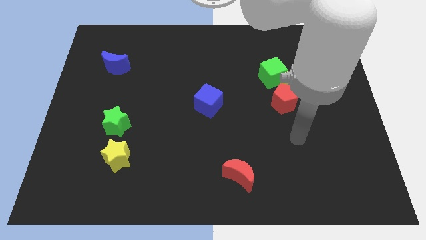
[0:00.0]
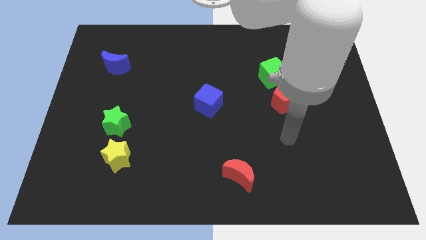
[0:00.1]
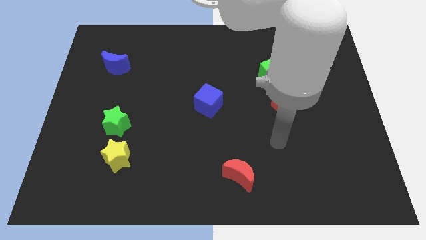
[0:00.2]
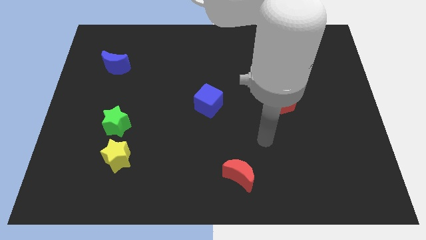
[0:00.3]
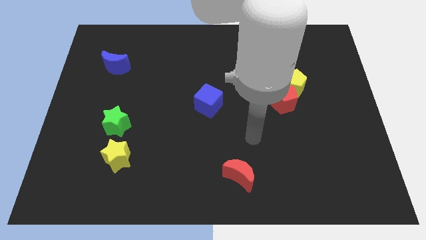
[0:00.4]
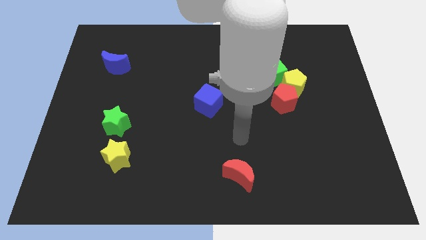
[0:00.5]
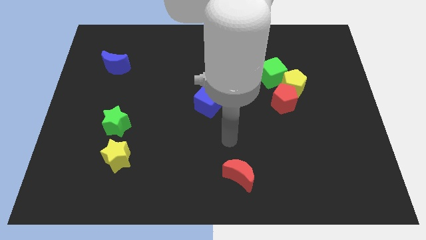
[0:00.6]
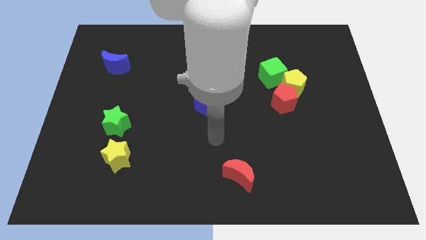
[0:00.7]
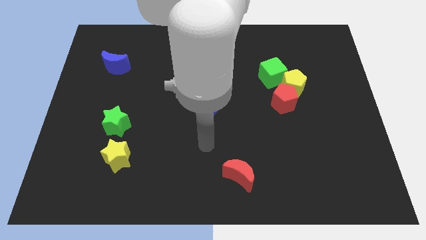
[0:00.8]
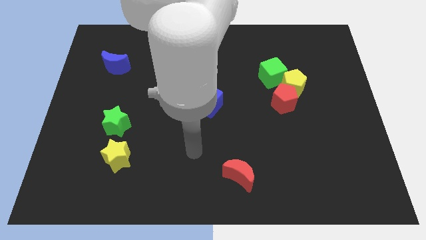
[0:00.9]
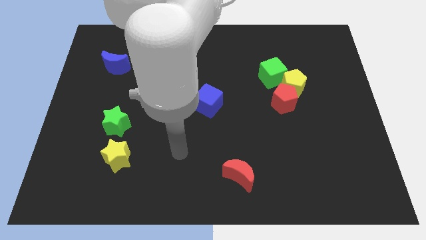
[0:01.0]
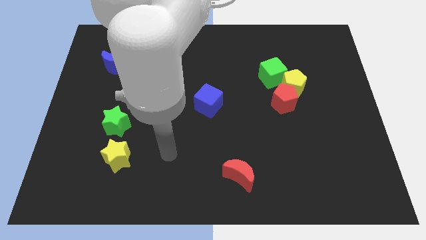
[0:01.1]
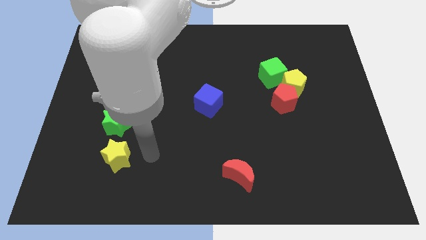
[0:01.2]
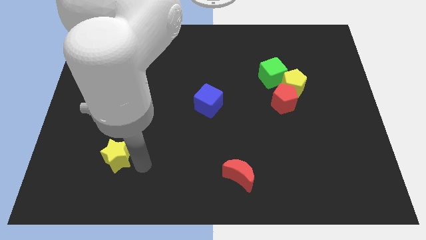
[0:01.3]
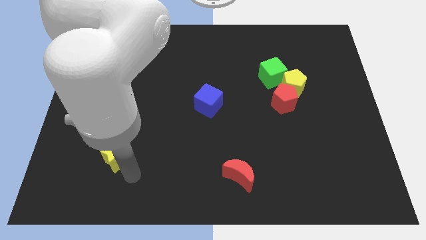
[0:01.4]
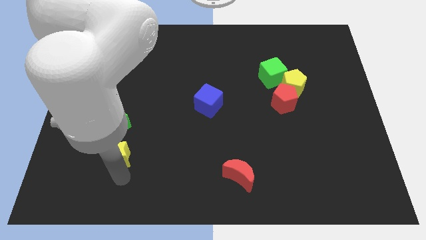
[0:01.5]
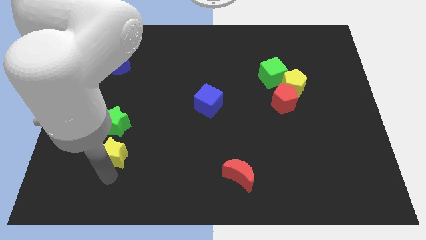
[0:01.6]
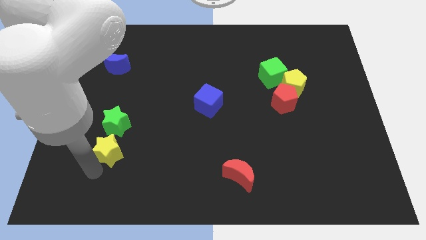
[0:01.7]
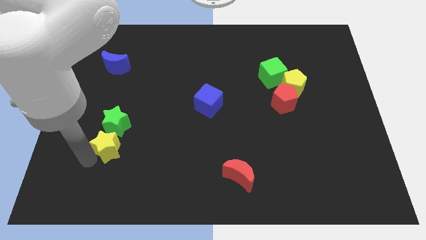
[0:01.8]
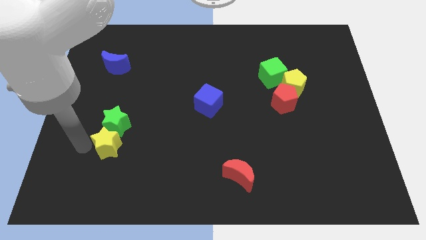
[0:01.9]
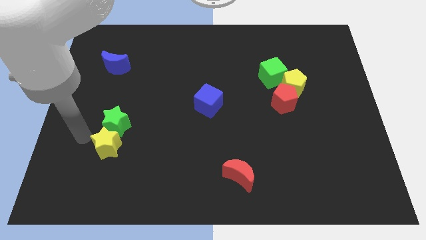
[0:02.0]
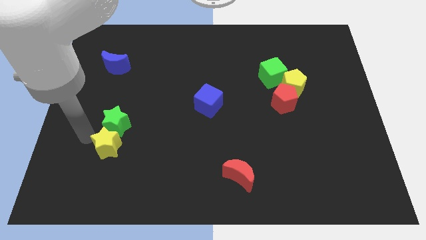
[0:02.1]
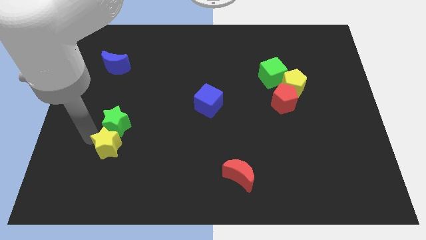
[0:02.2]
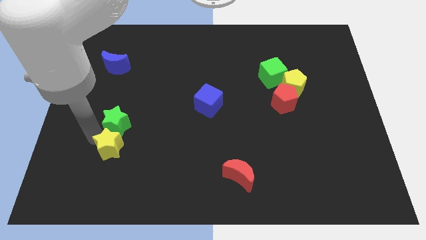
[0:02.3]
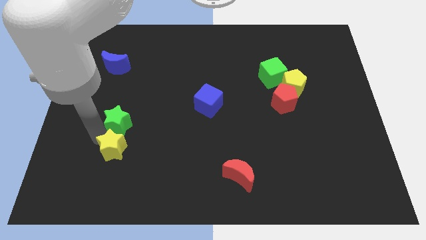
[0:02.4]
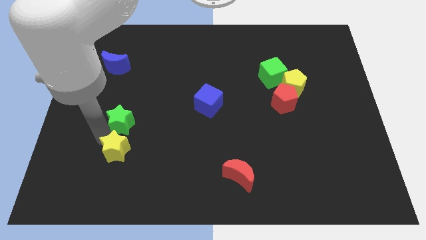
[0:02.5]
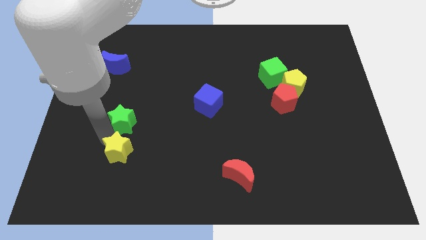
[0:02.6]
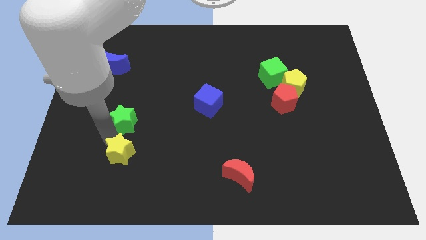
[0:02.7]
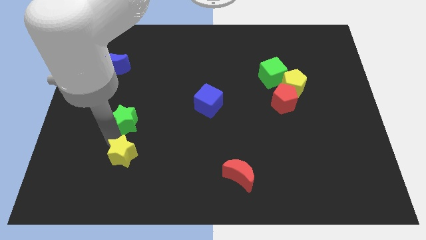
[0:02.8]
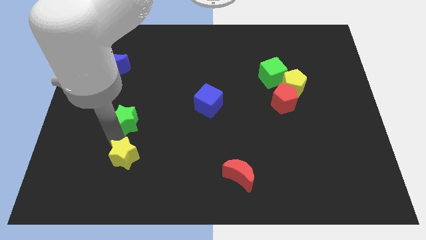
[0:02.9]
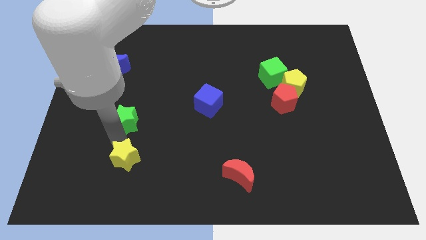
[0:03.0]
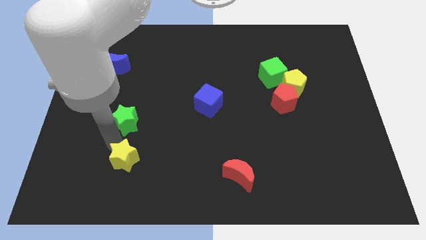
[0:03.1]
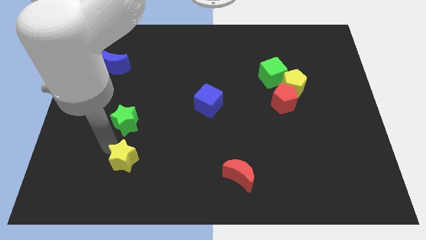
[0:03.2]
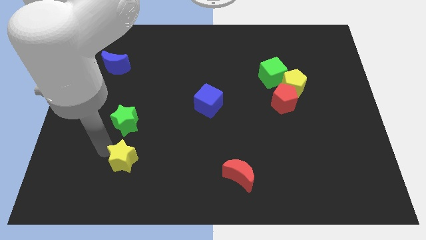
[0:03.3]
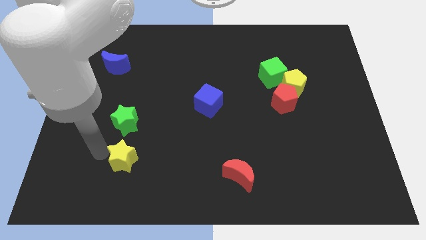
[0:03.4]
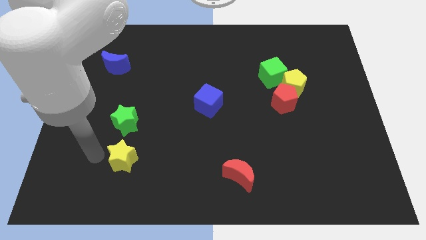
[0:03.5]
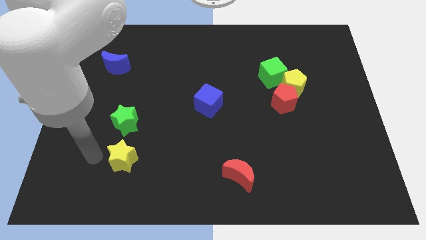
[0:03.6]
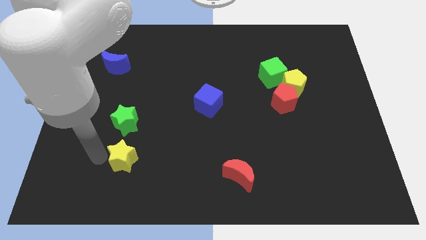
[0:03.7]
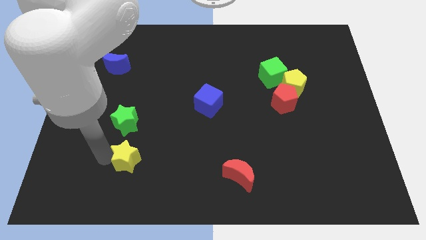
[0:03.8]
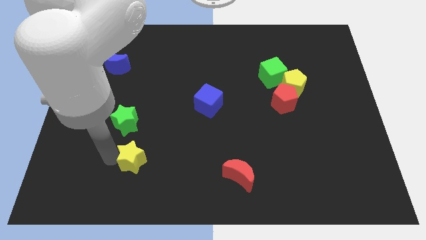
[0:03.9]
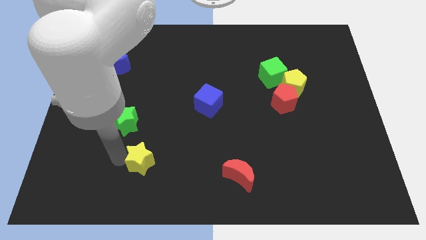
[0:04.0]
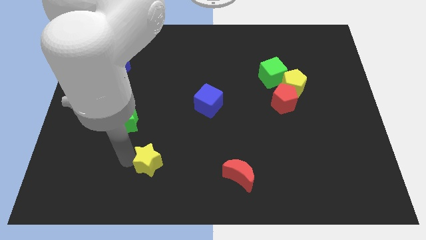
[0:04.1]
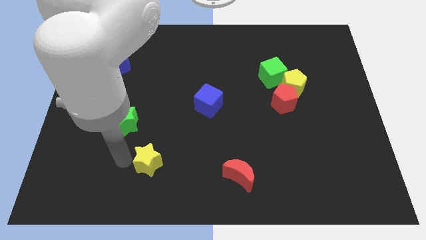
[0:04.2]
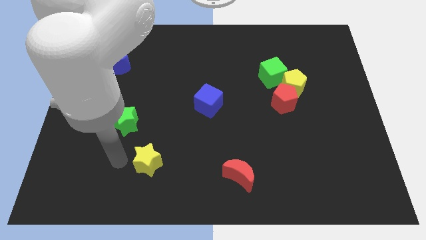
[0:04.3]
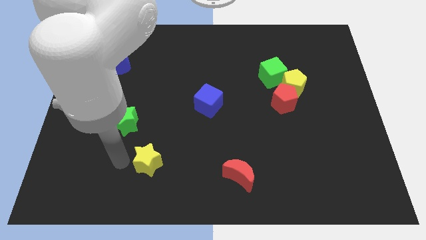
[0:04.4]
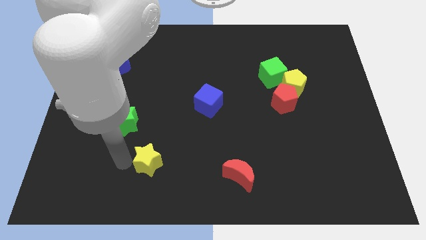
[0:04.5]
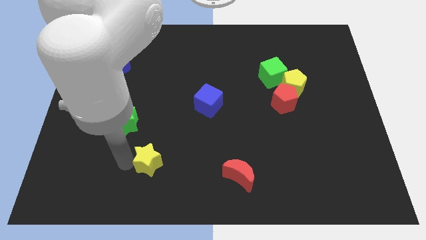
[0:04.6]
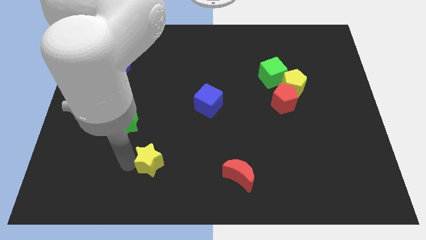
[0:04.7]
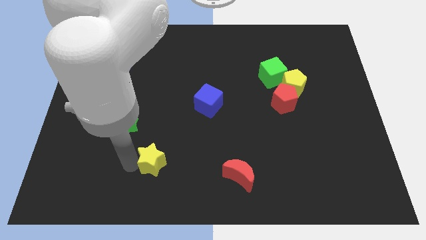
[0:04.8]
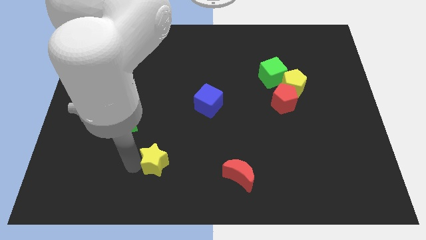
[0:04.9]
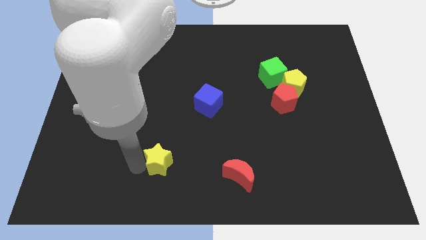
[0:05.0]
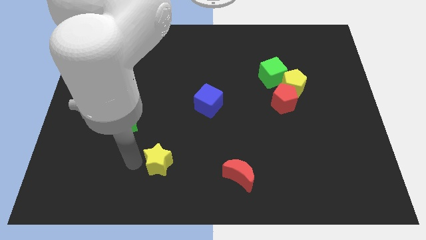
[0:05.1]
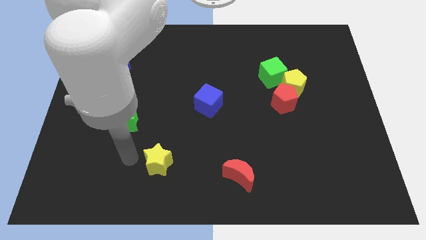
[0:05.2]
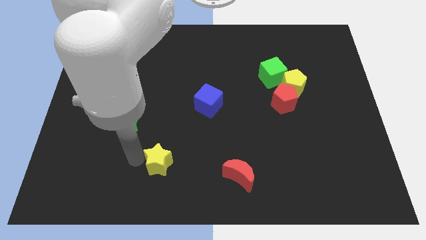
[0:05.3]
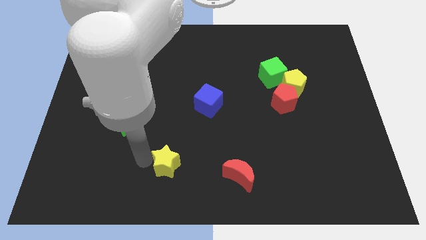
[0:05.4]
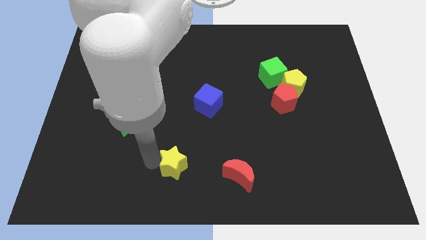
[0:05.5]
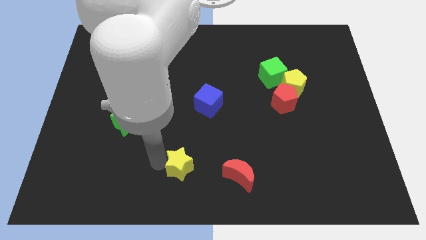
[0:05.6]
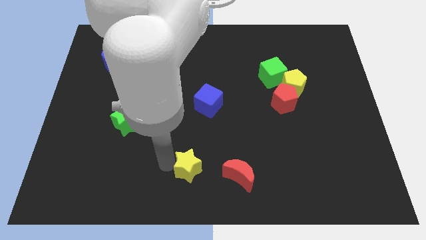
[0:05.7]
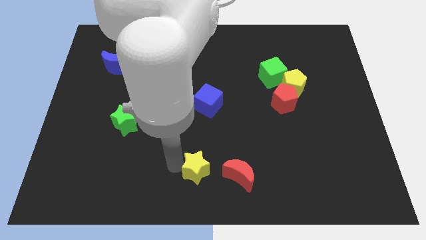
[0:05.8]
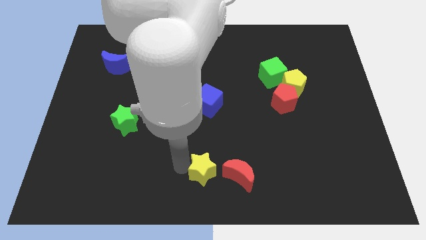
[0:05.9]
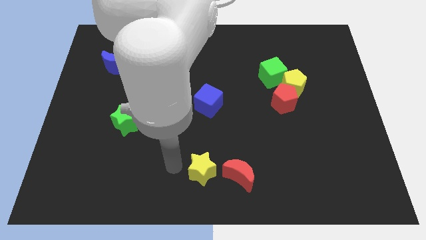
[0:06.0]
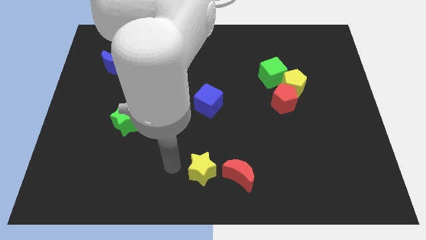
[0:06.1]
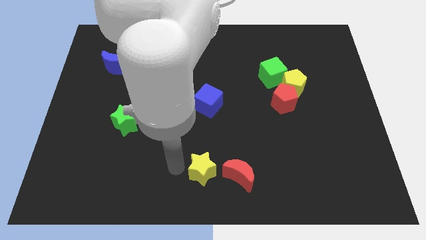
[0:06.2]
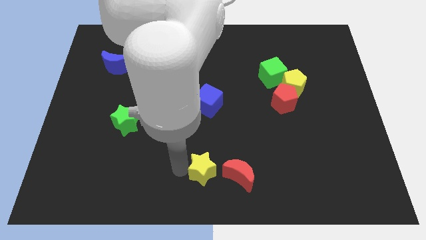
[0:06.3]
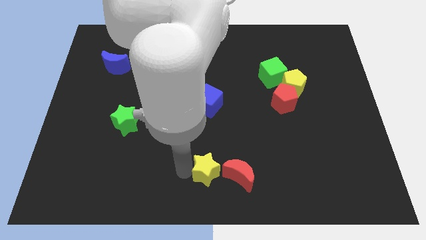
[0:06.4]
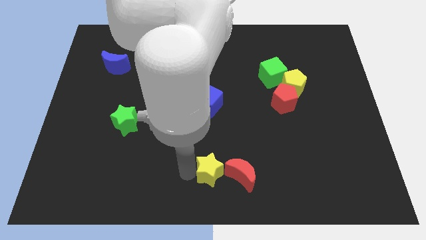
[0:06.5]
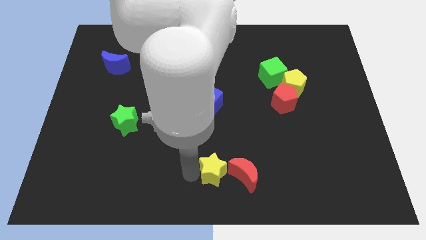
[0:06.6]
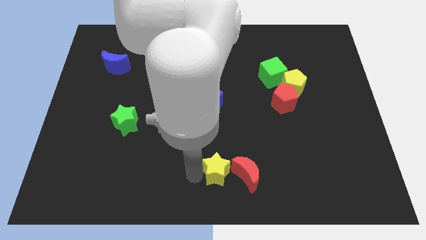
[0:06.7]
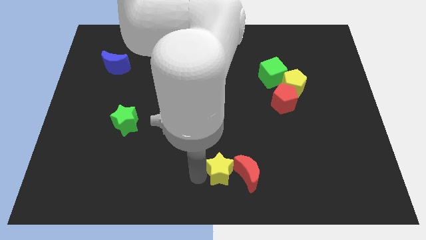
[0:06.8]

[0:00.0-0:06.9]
move the yellow star close to the red moon

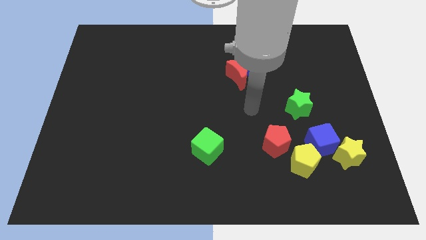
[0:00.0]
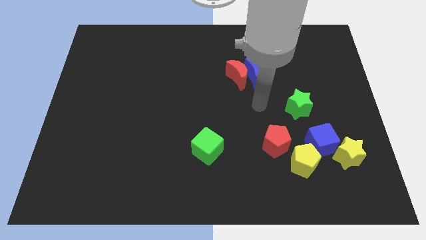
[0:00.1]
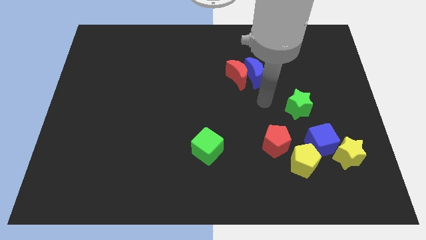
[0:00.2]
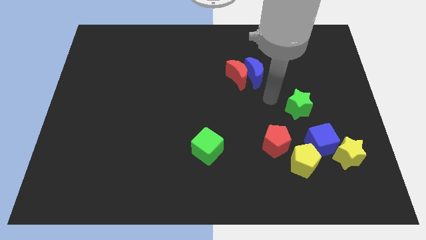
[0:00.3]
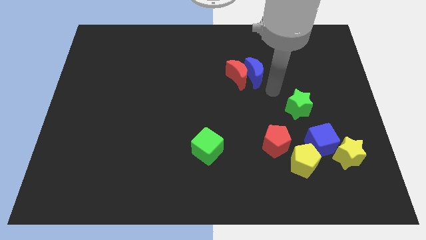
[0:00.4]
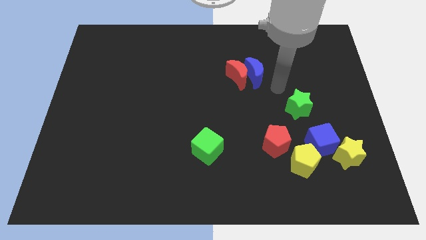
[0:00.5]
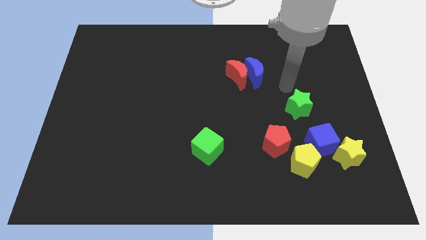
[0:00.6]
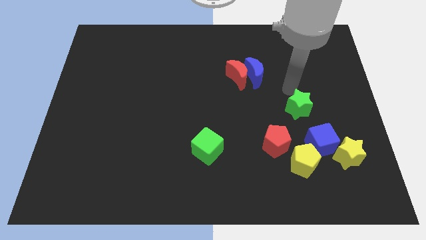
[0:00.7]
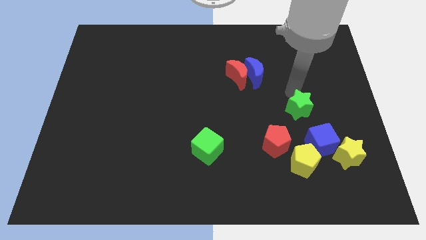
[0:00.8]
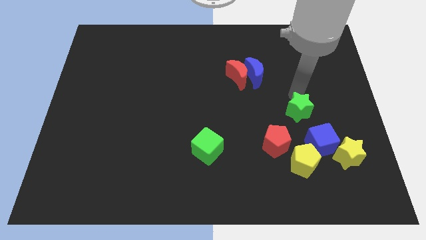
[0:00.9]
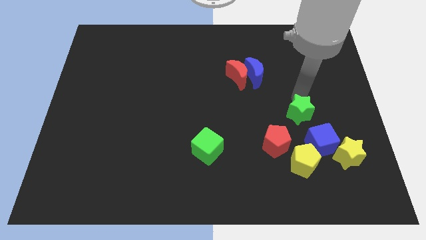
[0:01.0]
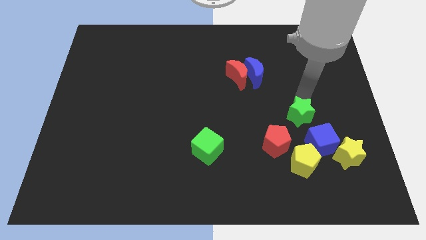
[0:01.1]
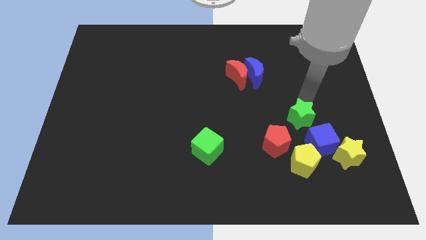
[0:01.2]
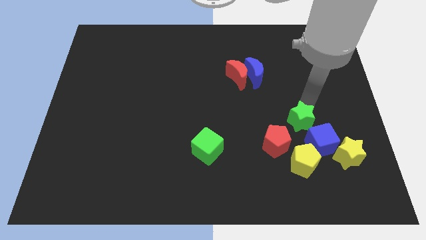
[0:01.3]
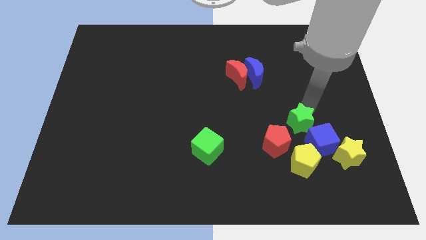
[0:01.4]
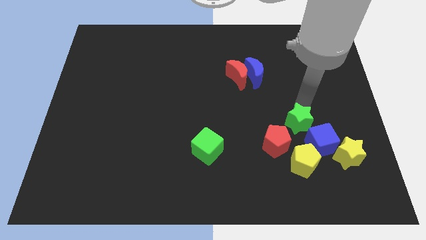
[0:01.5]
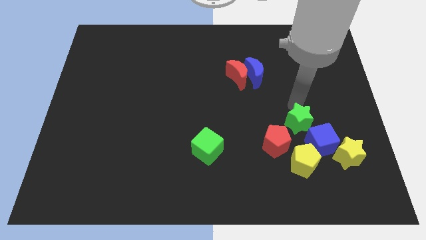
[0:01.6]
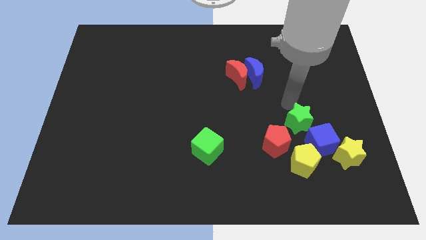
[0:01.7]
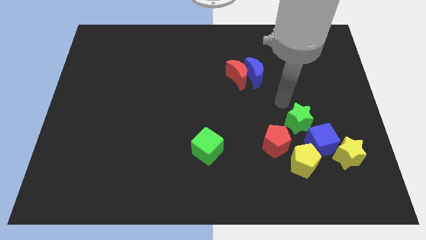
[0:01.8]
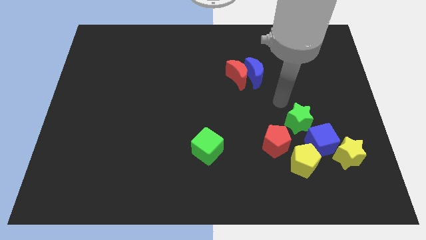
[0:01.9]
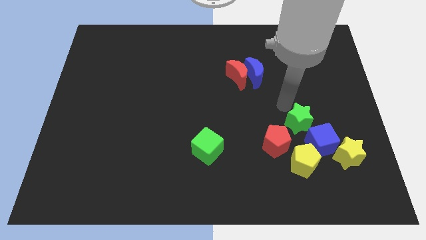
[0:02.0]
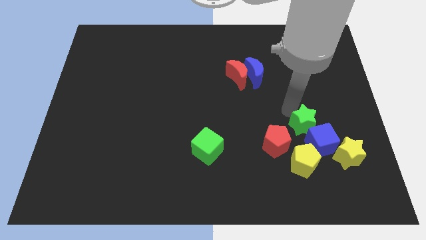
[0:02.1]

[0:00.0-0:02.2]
move the green star next to the blue cube
